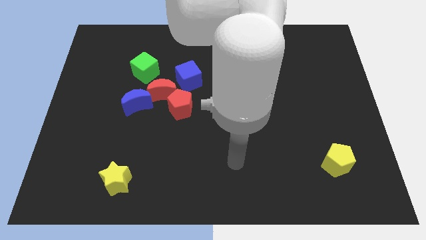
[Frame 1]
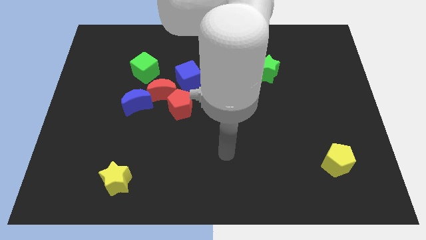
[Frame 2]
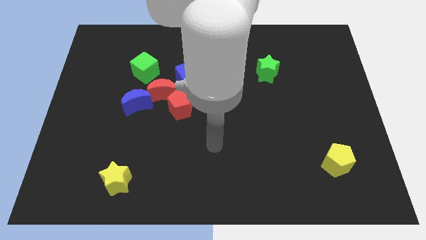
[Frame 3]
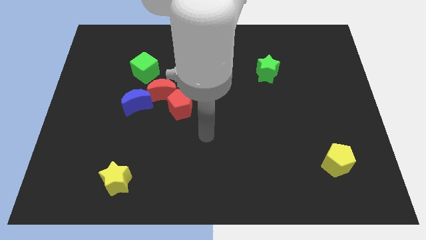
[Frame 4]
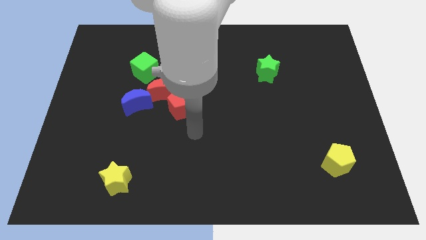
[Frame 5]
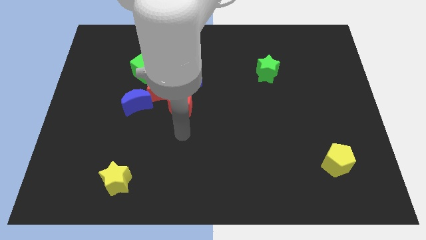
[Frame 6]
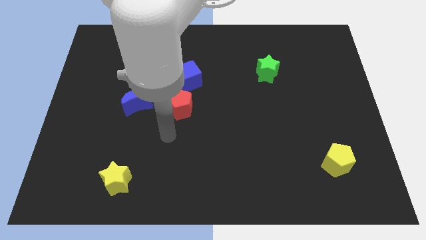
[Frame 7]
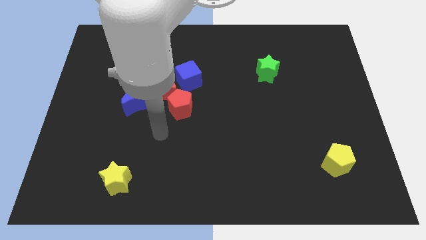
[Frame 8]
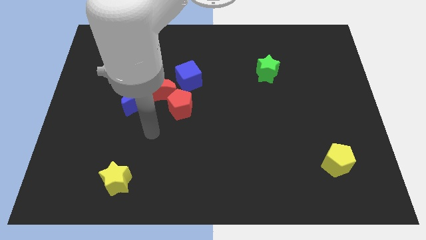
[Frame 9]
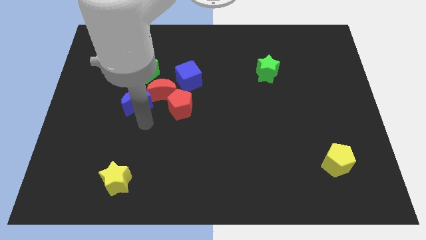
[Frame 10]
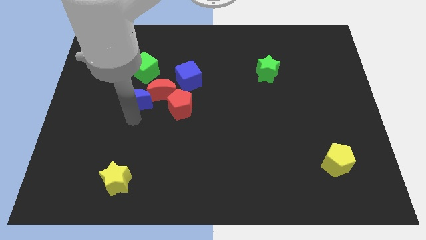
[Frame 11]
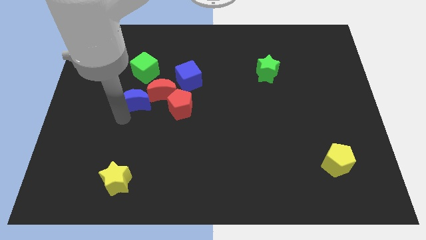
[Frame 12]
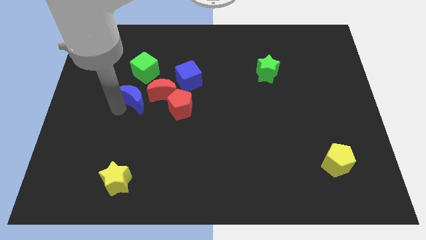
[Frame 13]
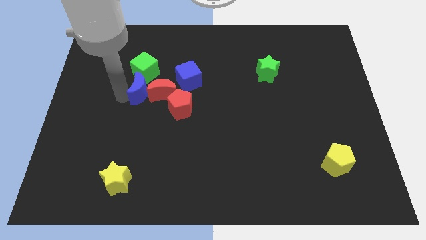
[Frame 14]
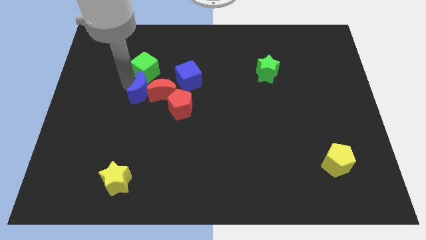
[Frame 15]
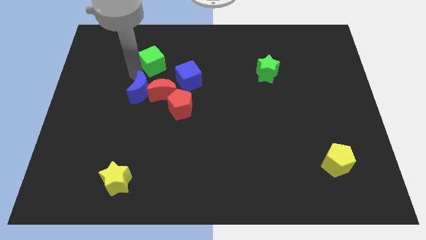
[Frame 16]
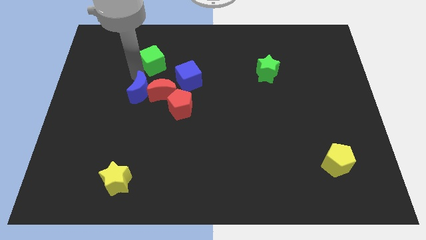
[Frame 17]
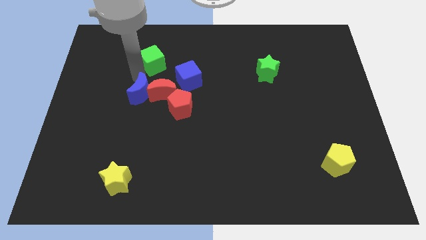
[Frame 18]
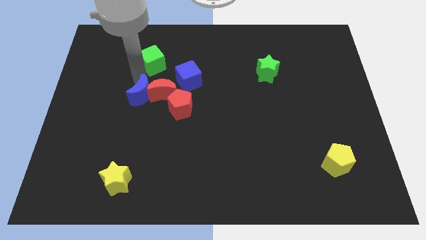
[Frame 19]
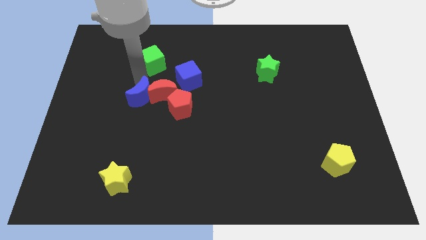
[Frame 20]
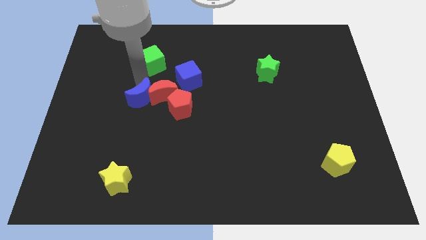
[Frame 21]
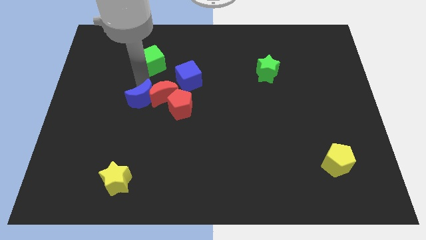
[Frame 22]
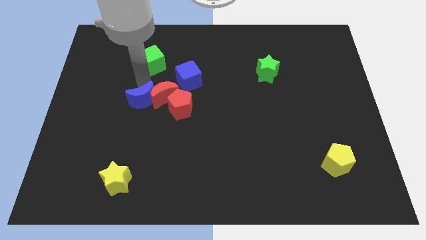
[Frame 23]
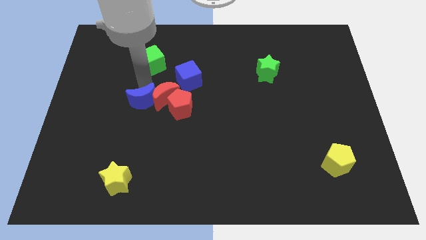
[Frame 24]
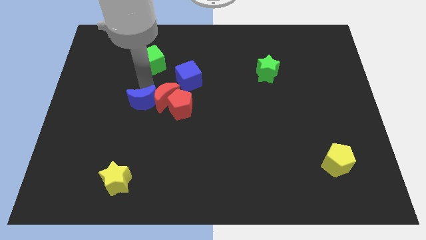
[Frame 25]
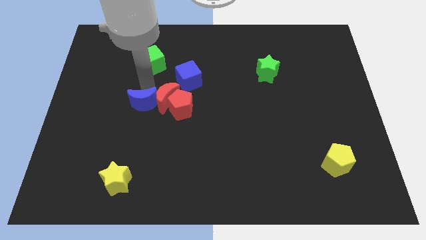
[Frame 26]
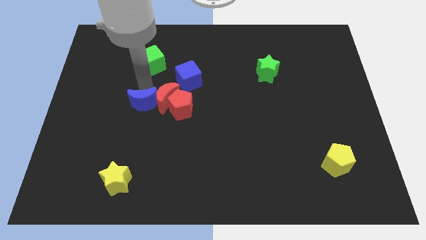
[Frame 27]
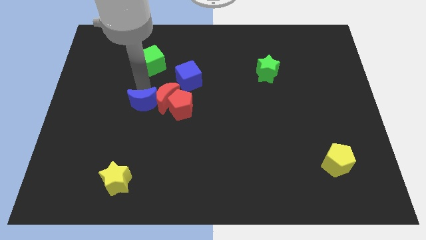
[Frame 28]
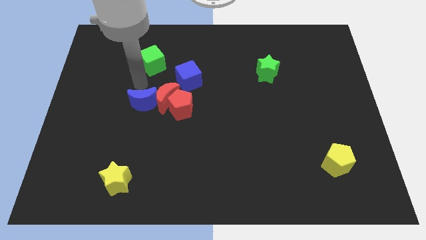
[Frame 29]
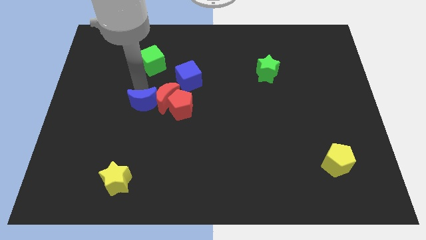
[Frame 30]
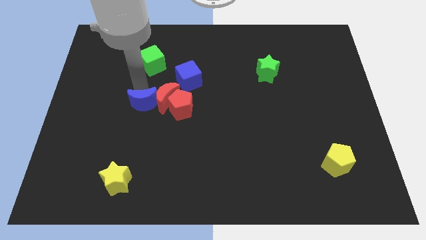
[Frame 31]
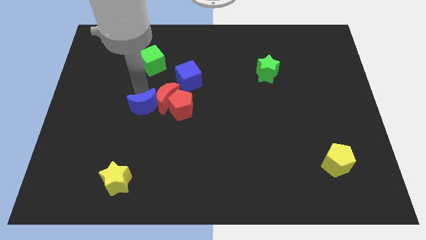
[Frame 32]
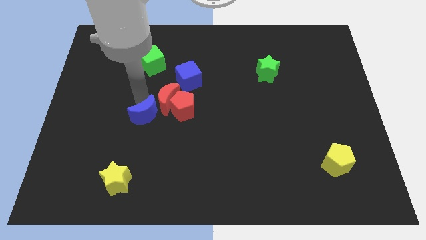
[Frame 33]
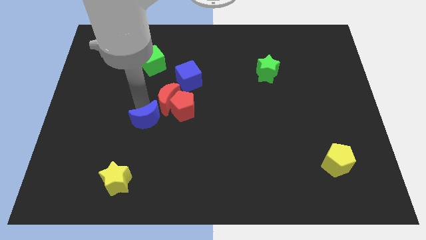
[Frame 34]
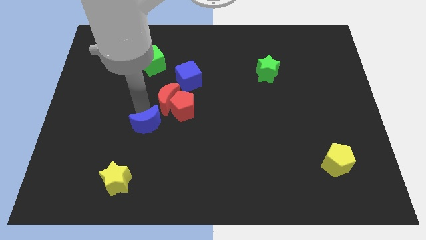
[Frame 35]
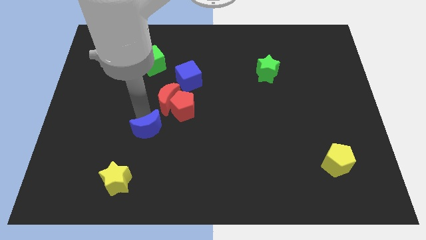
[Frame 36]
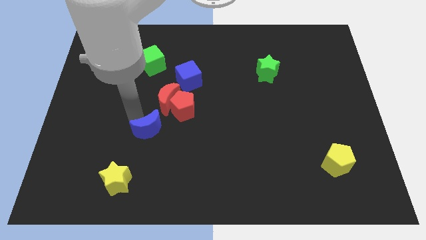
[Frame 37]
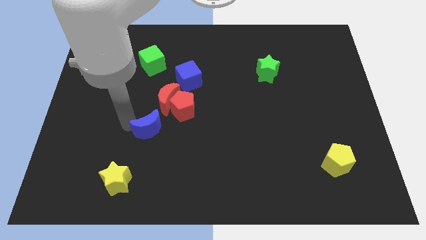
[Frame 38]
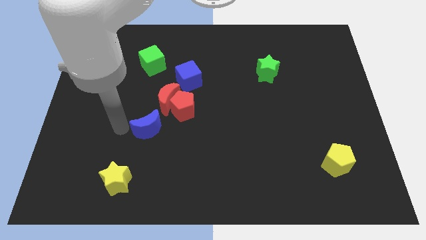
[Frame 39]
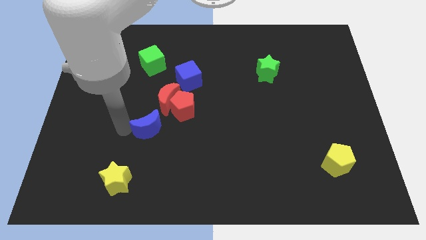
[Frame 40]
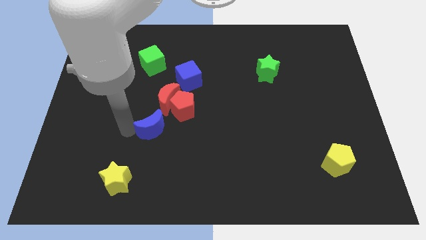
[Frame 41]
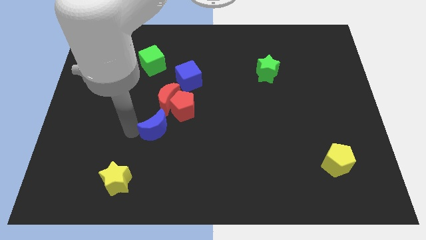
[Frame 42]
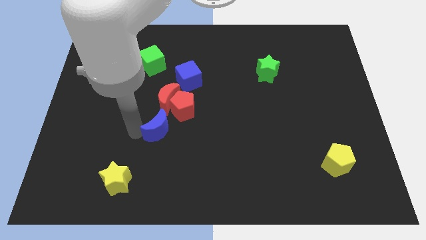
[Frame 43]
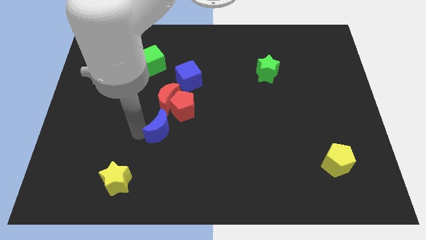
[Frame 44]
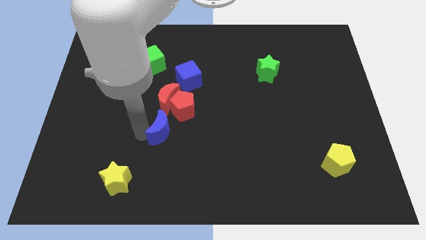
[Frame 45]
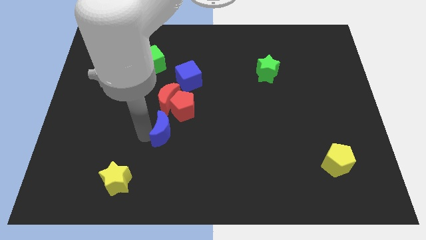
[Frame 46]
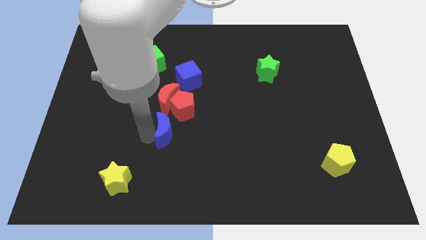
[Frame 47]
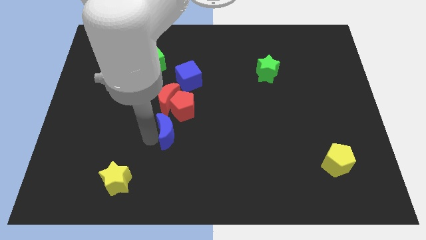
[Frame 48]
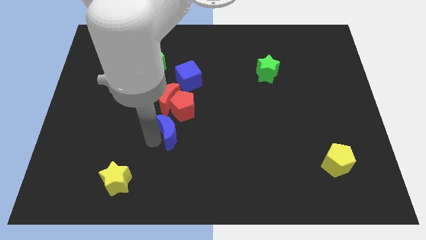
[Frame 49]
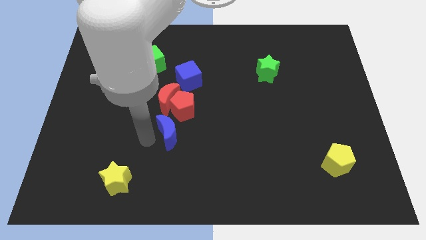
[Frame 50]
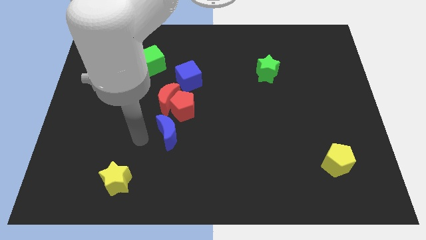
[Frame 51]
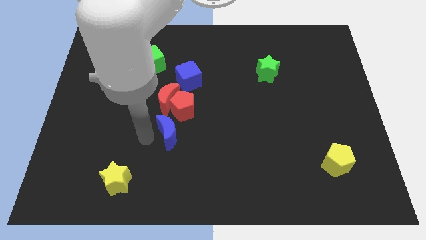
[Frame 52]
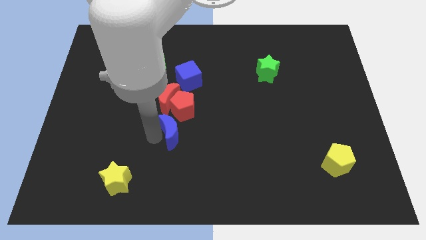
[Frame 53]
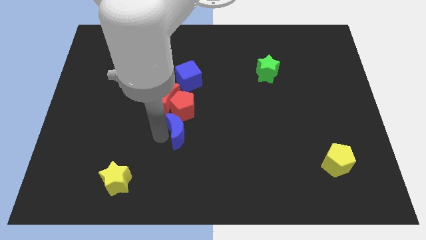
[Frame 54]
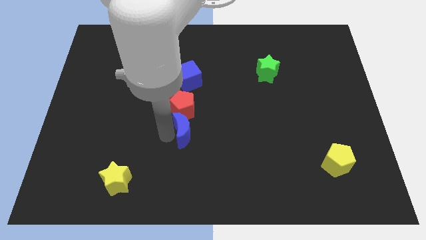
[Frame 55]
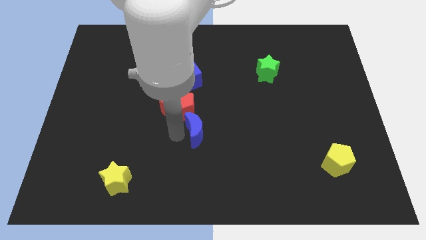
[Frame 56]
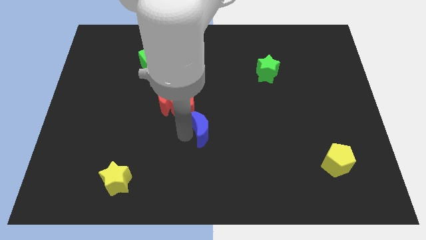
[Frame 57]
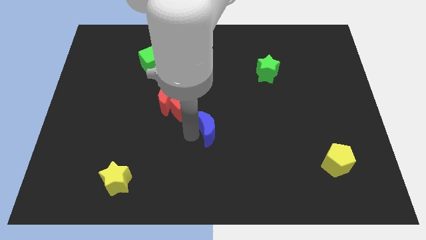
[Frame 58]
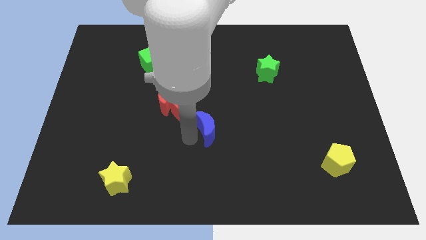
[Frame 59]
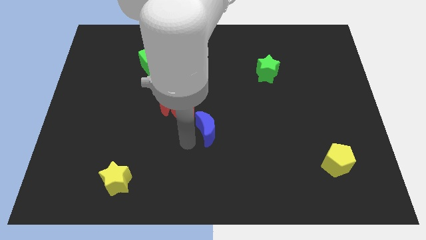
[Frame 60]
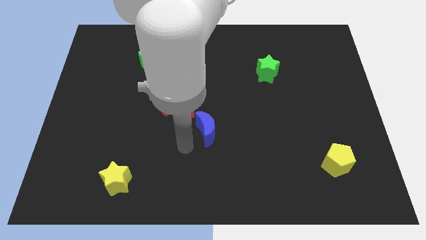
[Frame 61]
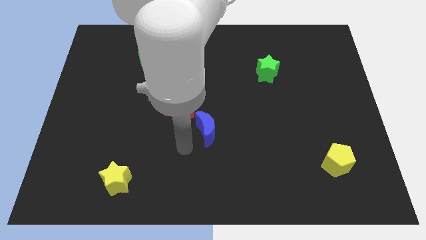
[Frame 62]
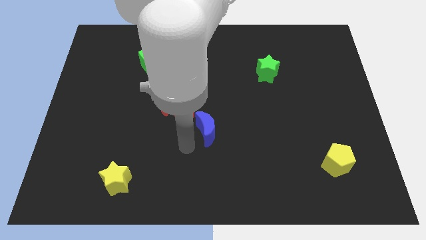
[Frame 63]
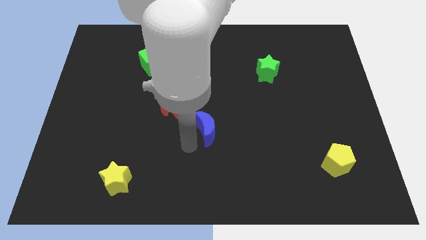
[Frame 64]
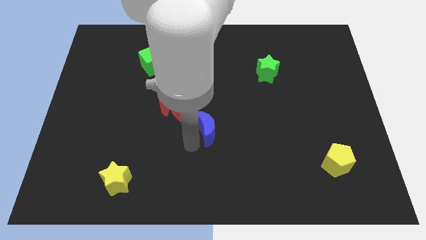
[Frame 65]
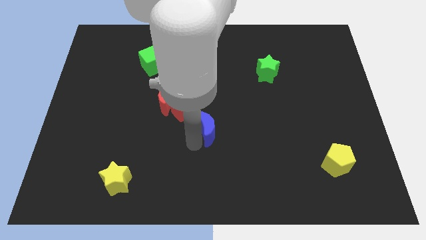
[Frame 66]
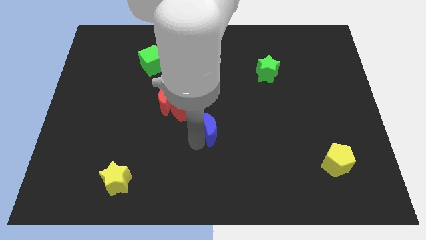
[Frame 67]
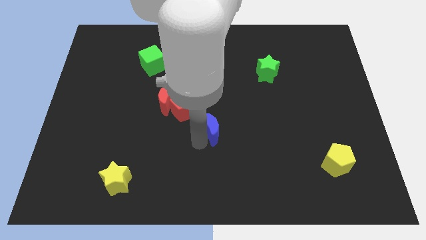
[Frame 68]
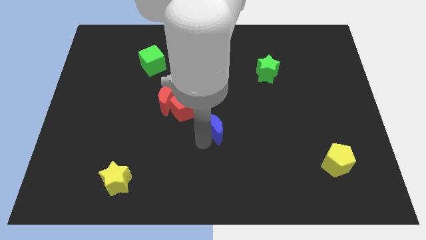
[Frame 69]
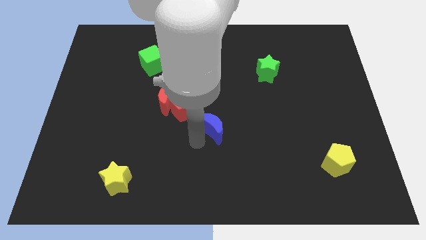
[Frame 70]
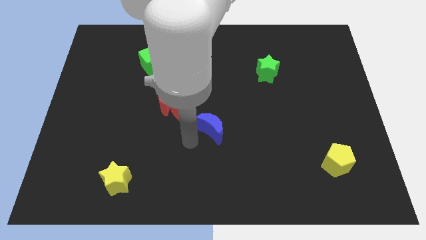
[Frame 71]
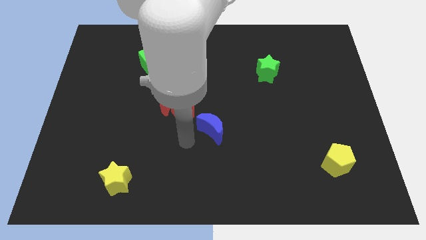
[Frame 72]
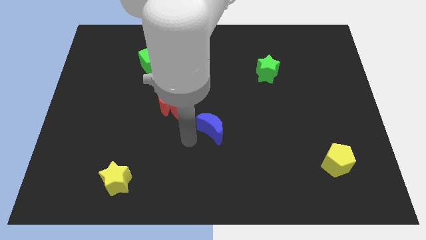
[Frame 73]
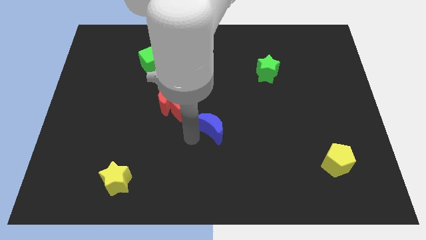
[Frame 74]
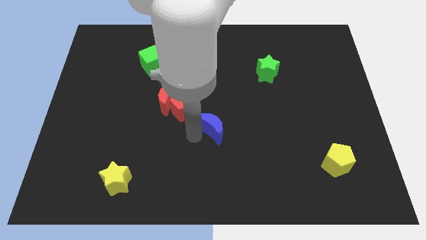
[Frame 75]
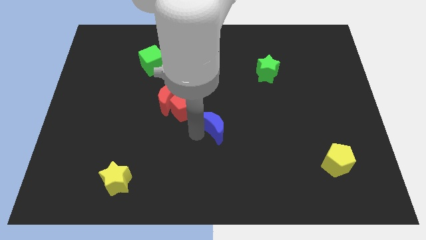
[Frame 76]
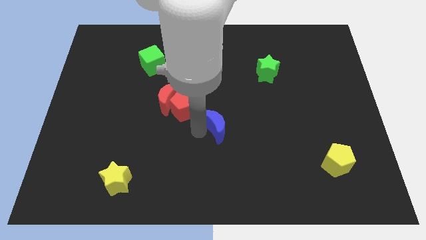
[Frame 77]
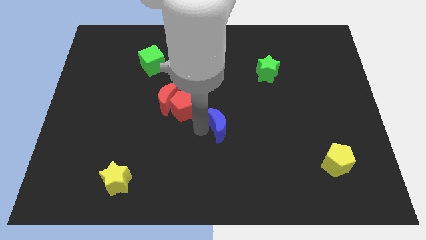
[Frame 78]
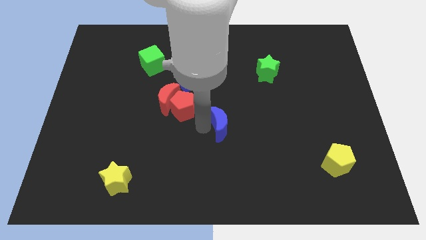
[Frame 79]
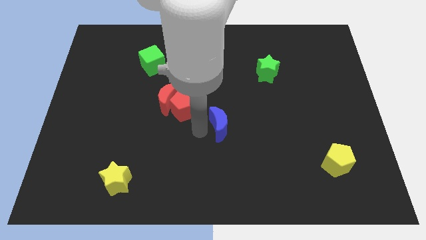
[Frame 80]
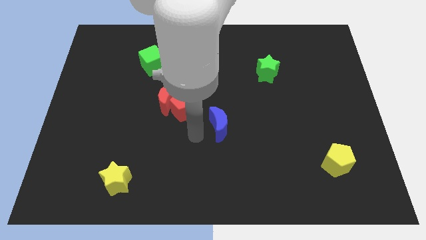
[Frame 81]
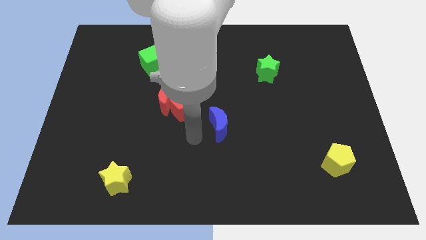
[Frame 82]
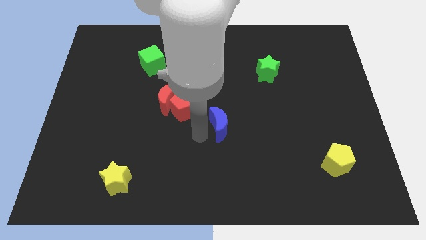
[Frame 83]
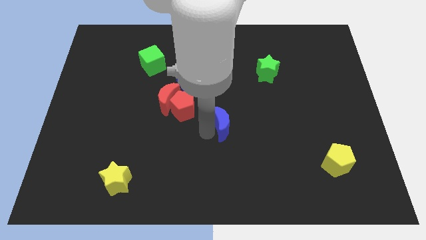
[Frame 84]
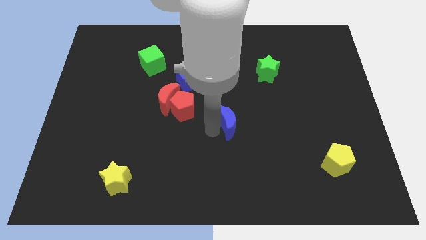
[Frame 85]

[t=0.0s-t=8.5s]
move the blue moon to the right
